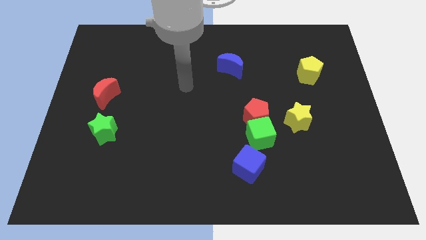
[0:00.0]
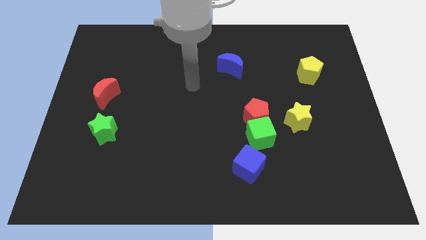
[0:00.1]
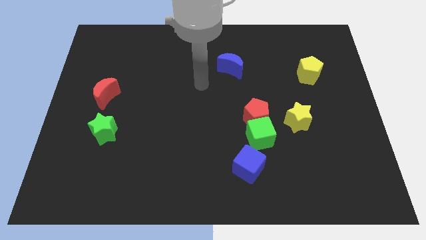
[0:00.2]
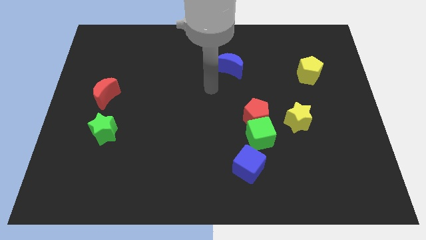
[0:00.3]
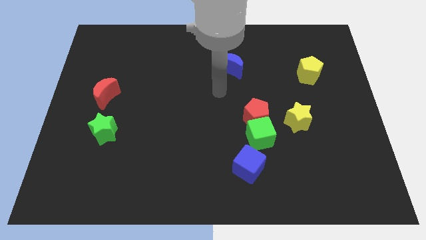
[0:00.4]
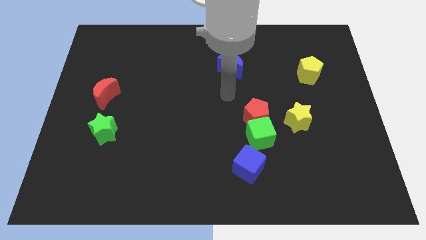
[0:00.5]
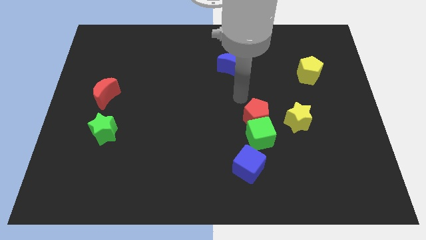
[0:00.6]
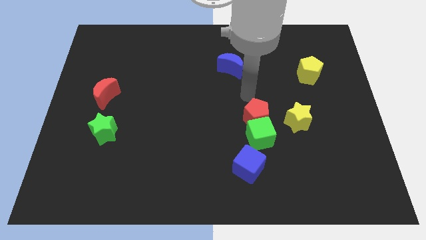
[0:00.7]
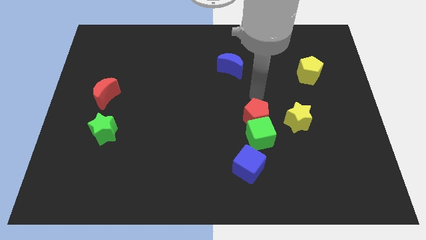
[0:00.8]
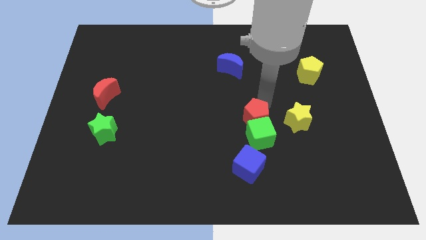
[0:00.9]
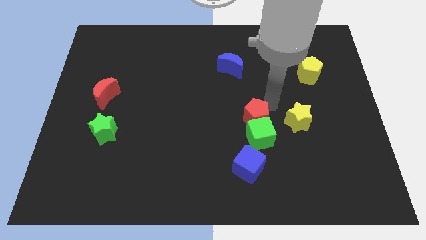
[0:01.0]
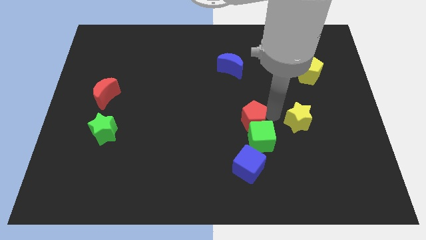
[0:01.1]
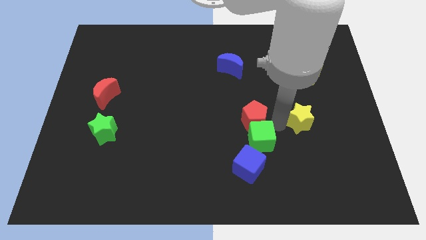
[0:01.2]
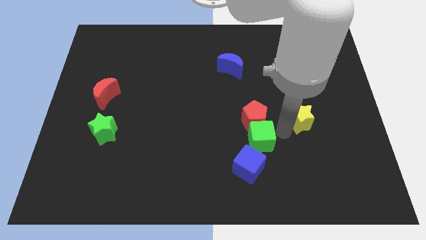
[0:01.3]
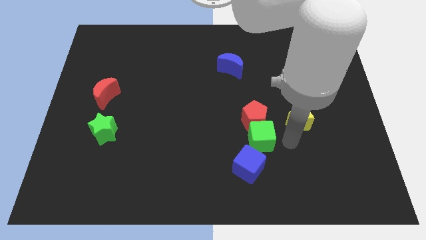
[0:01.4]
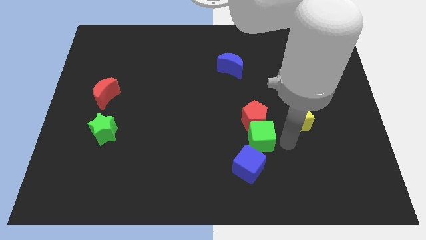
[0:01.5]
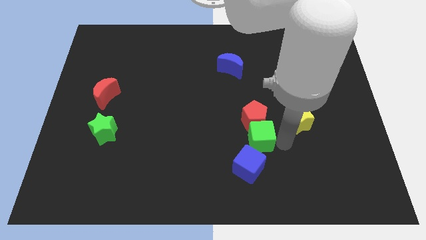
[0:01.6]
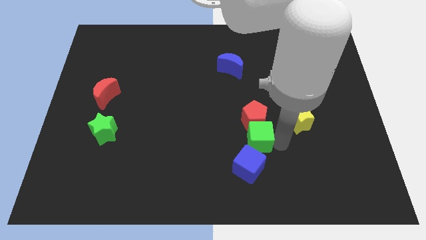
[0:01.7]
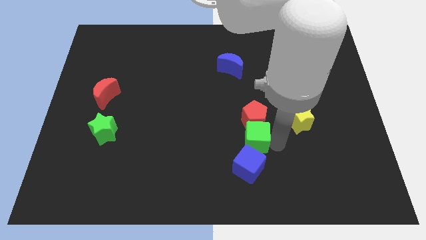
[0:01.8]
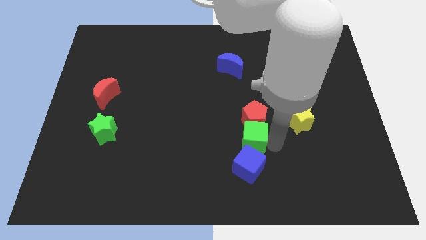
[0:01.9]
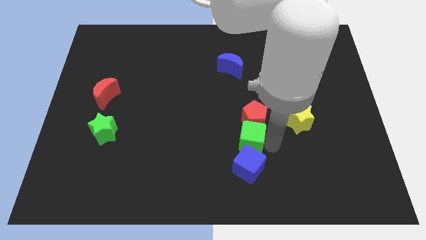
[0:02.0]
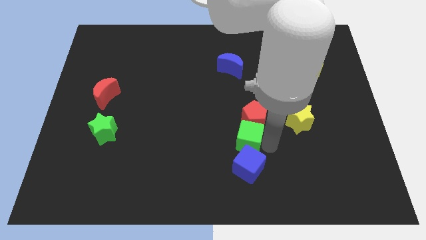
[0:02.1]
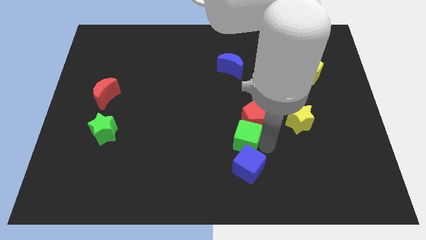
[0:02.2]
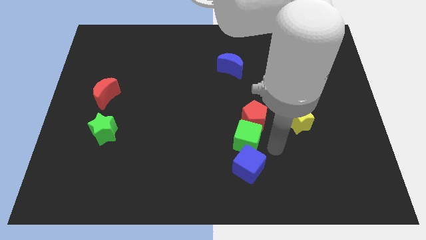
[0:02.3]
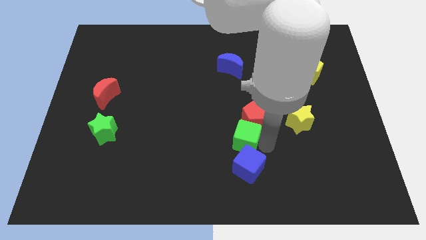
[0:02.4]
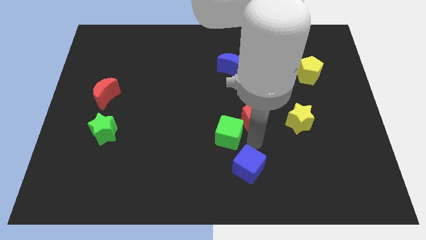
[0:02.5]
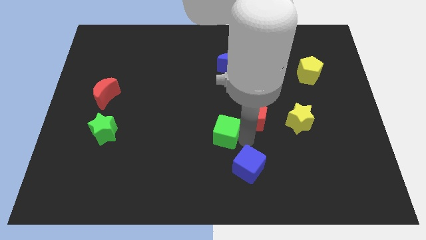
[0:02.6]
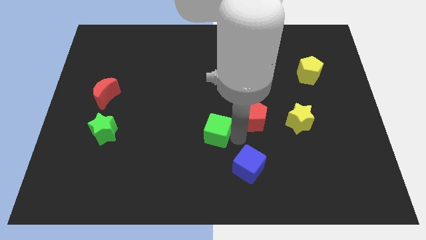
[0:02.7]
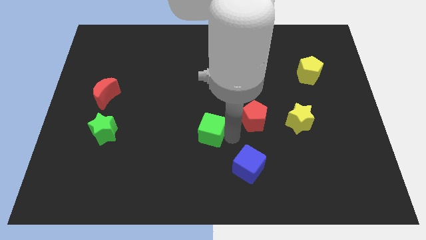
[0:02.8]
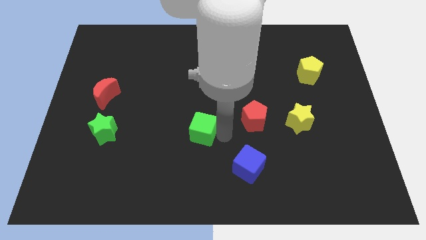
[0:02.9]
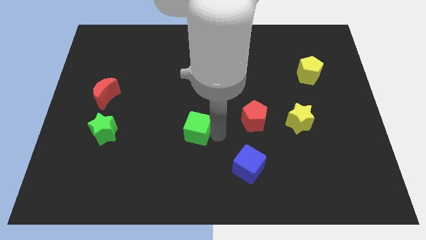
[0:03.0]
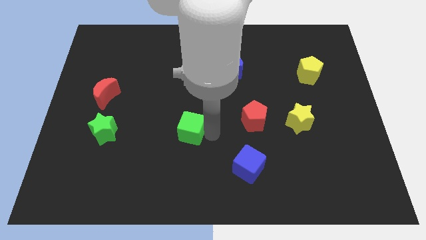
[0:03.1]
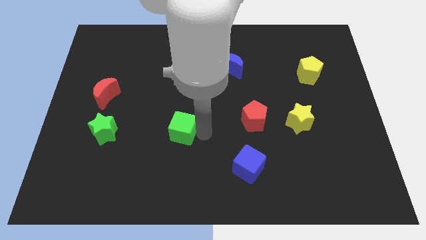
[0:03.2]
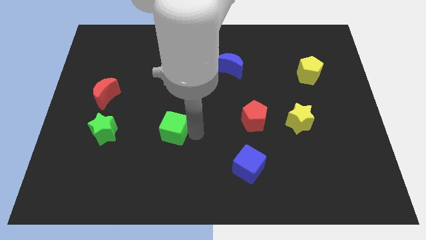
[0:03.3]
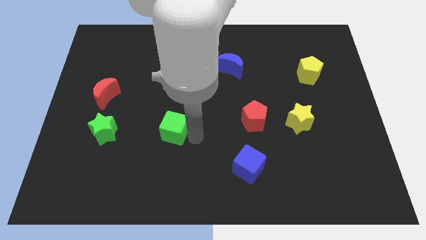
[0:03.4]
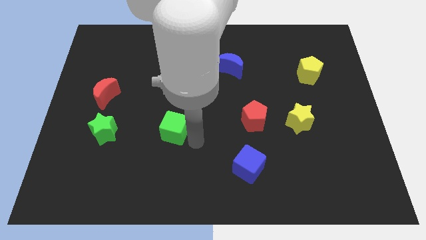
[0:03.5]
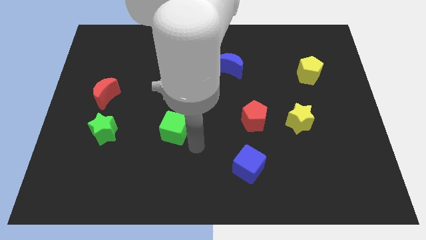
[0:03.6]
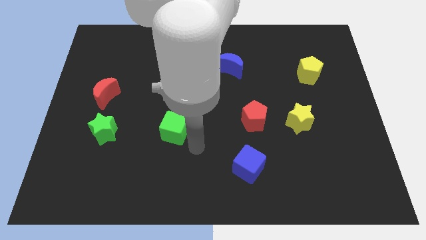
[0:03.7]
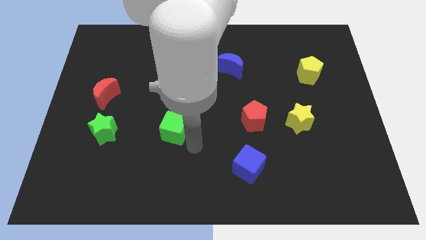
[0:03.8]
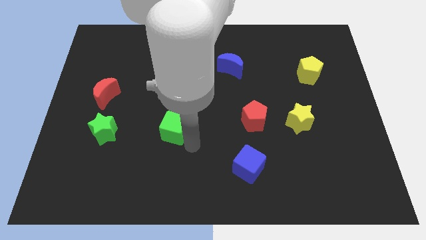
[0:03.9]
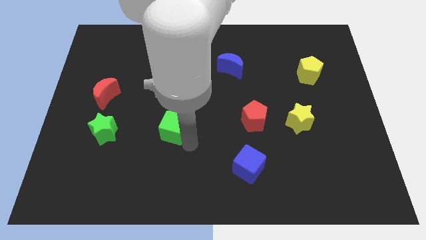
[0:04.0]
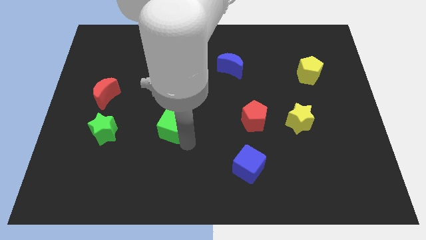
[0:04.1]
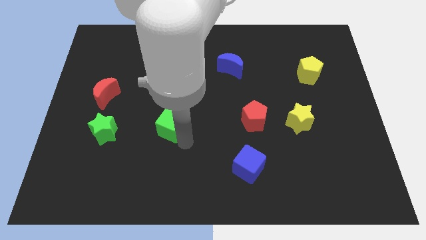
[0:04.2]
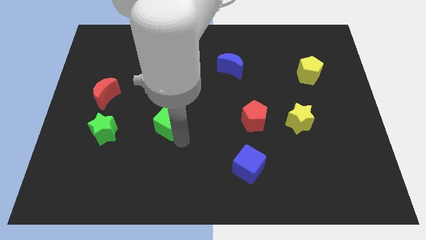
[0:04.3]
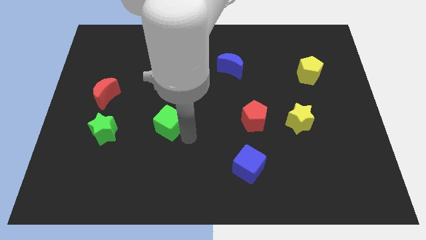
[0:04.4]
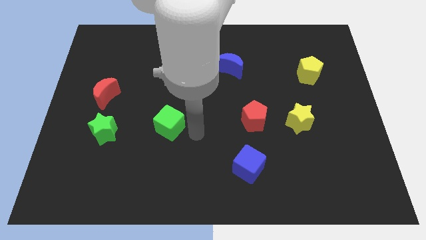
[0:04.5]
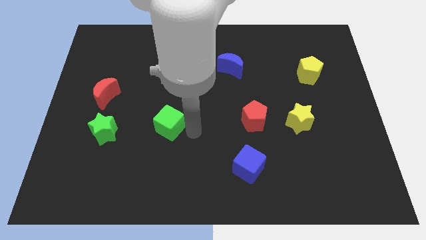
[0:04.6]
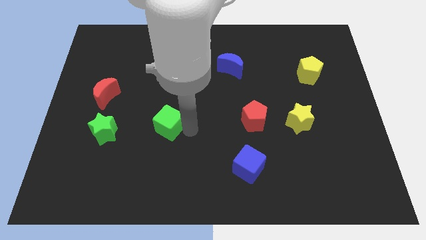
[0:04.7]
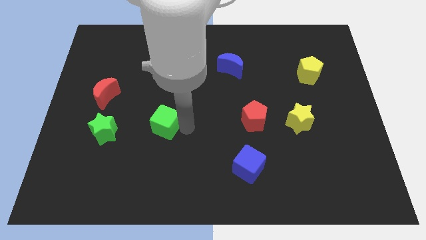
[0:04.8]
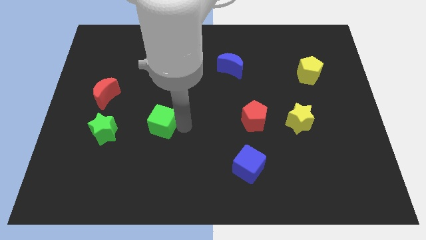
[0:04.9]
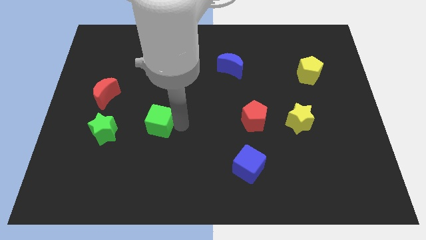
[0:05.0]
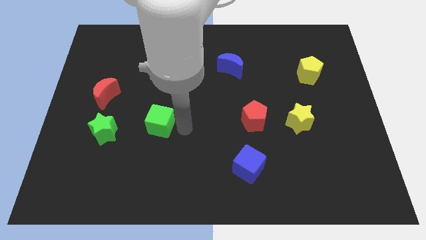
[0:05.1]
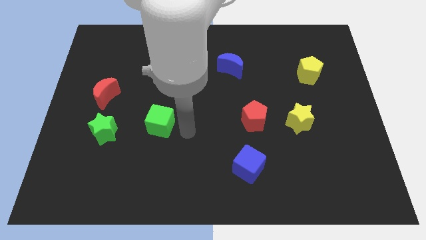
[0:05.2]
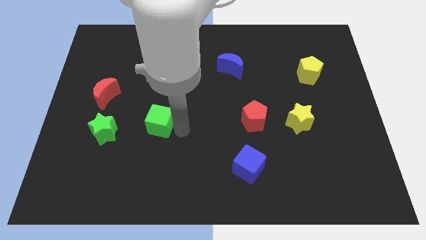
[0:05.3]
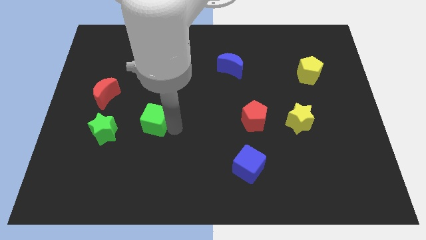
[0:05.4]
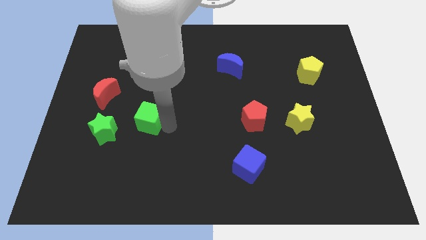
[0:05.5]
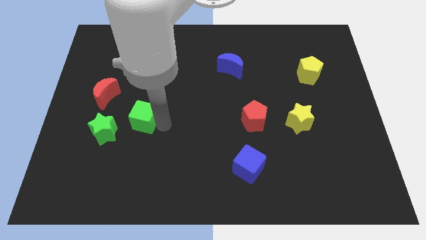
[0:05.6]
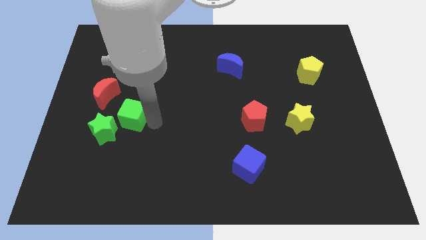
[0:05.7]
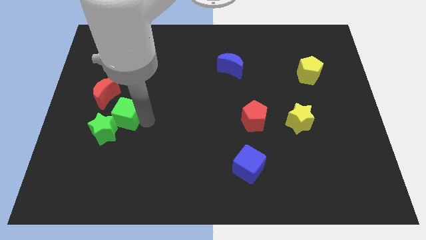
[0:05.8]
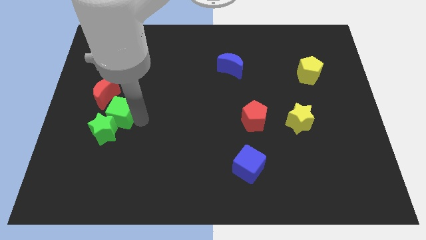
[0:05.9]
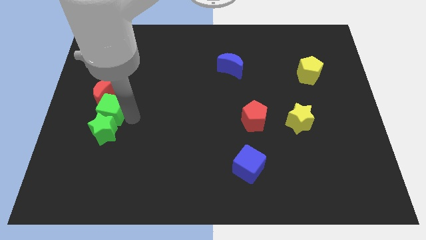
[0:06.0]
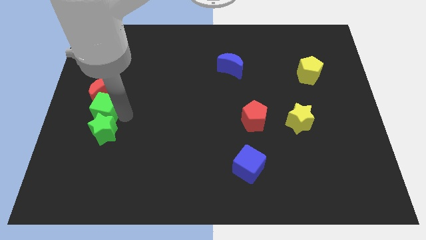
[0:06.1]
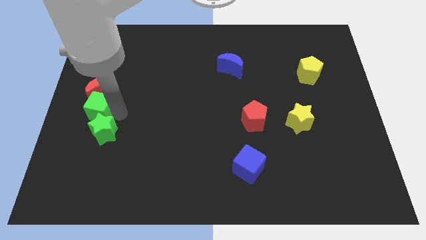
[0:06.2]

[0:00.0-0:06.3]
put the green cube to the center left

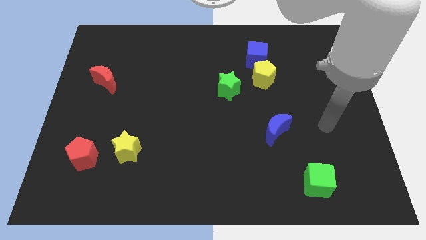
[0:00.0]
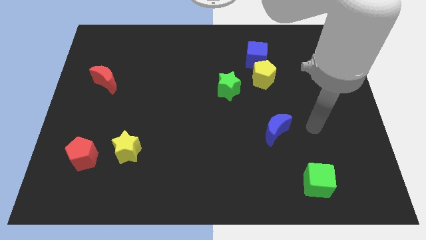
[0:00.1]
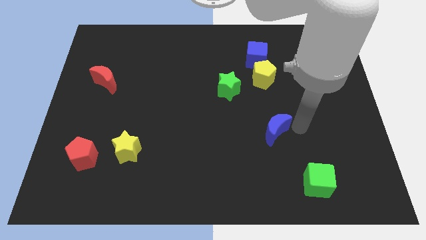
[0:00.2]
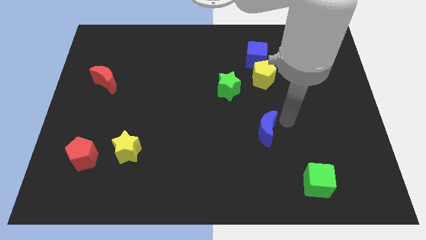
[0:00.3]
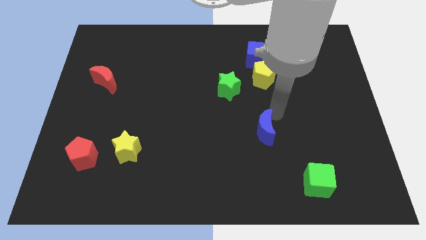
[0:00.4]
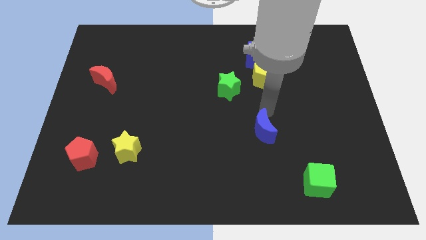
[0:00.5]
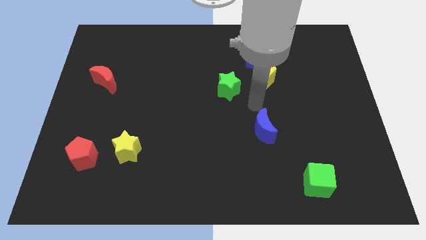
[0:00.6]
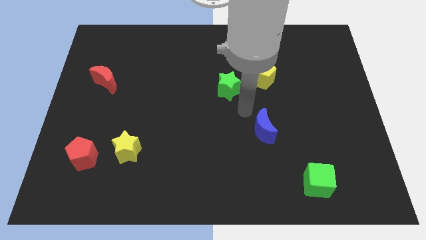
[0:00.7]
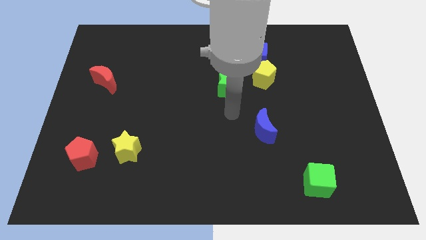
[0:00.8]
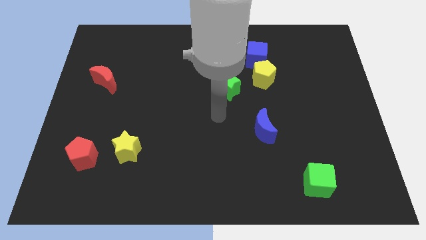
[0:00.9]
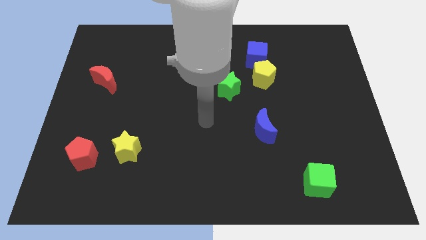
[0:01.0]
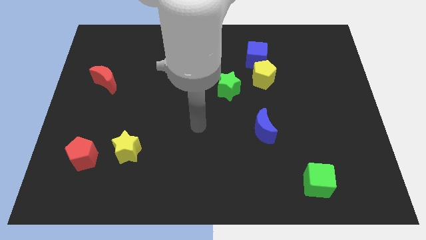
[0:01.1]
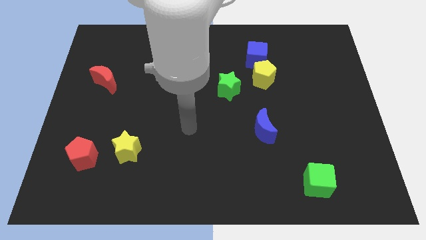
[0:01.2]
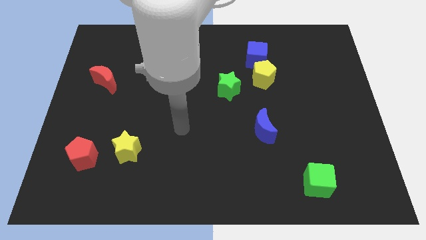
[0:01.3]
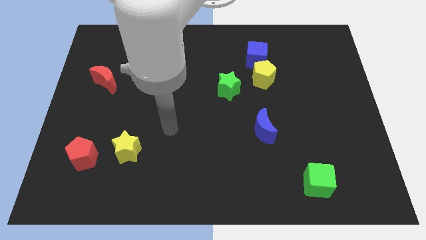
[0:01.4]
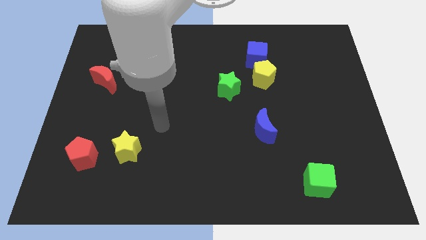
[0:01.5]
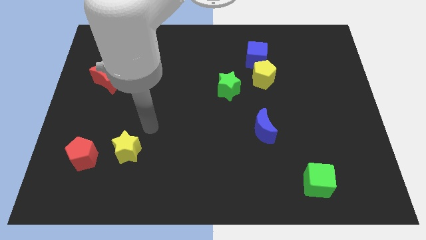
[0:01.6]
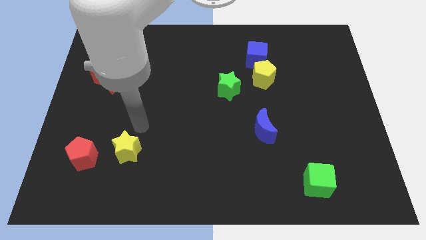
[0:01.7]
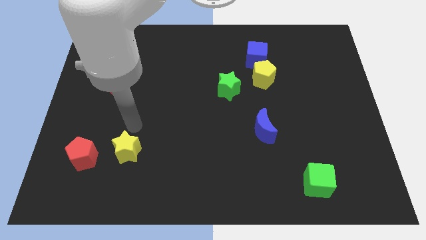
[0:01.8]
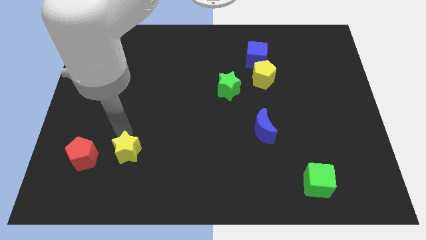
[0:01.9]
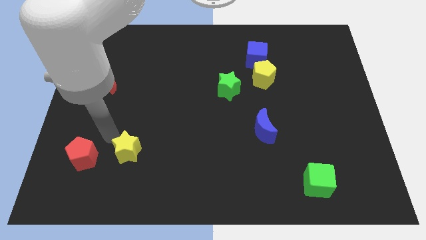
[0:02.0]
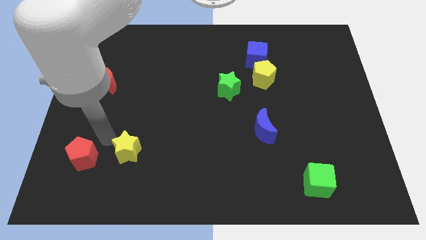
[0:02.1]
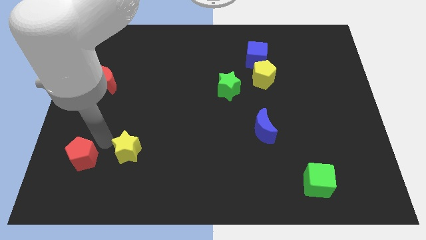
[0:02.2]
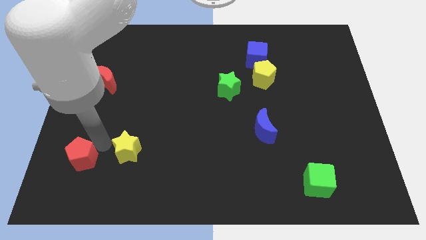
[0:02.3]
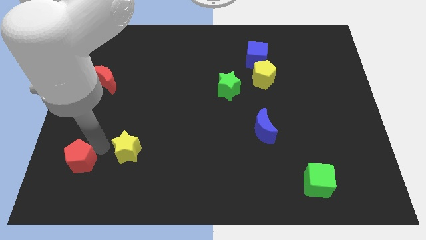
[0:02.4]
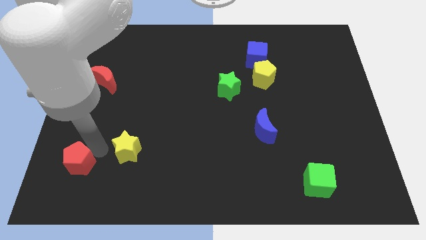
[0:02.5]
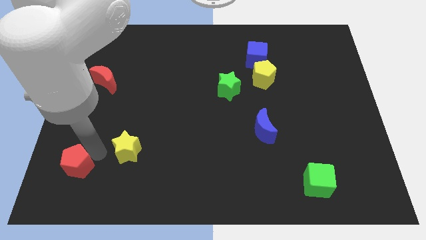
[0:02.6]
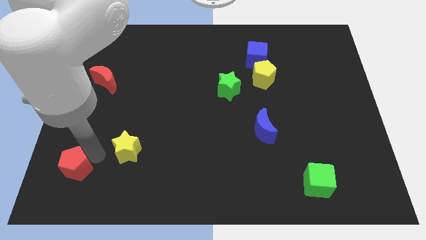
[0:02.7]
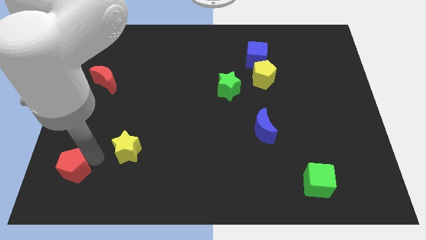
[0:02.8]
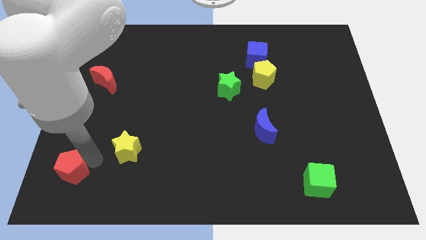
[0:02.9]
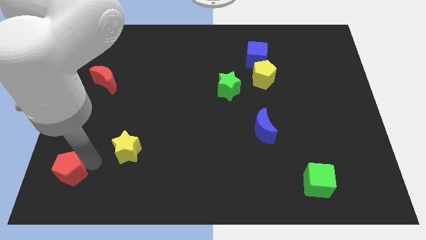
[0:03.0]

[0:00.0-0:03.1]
put the red pentagon to the bottom left
